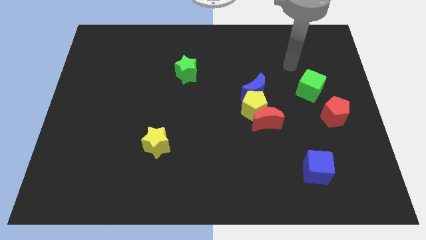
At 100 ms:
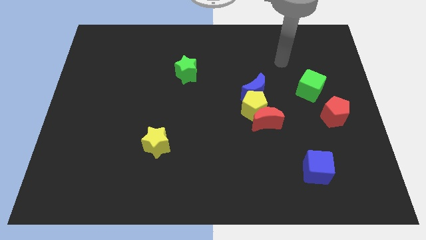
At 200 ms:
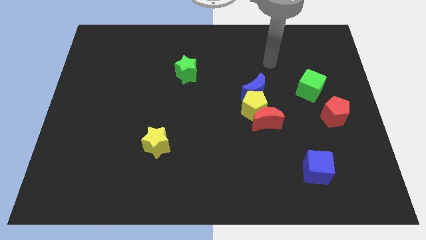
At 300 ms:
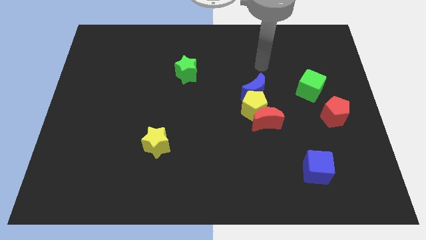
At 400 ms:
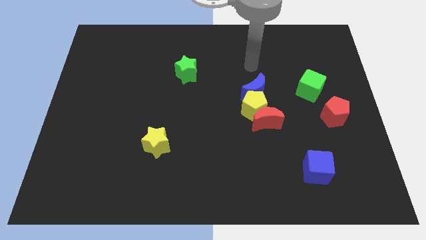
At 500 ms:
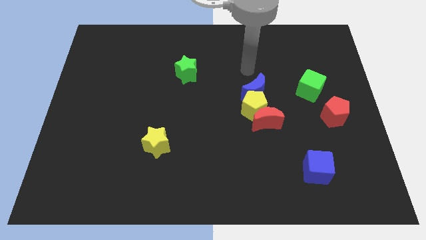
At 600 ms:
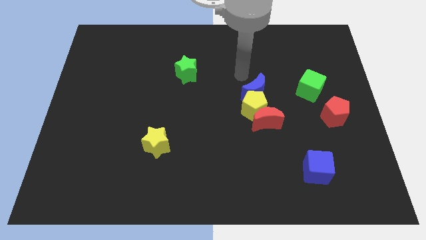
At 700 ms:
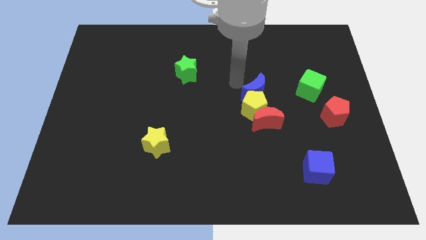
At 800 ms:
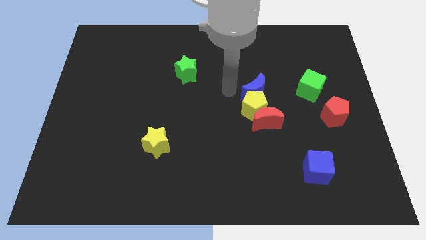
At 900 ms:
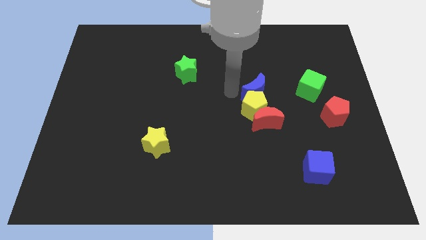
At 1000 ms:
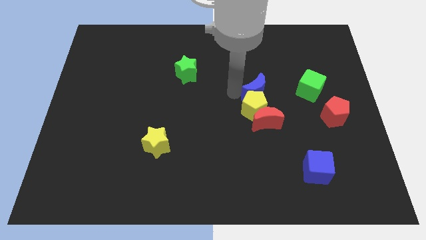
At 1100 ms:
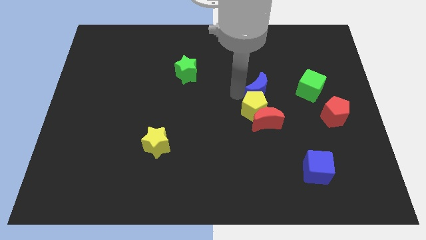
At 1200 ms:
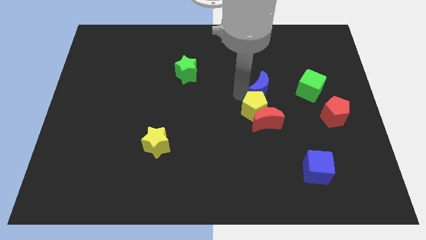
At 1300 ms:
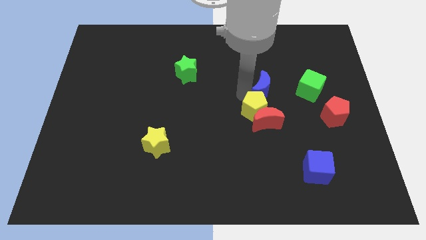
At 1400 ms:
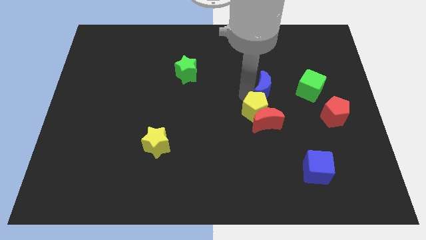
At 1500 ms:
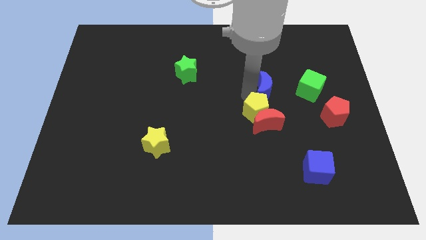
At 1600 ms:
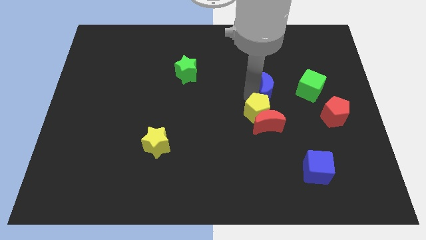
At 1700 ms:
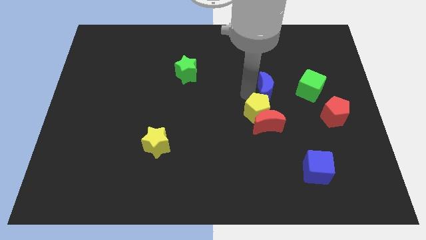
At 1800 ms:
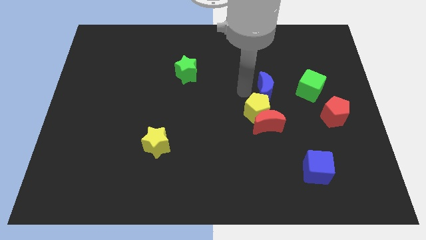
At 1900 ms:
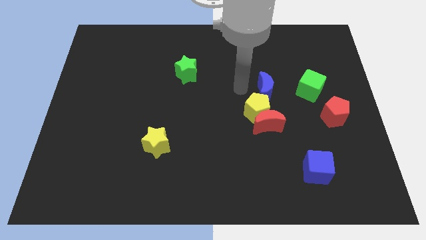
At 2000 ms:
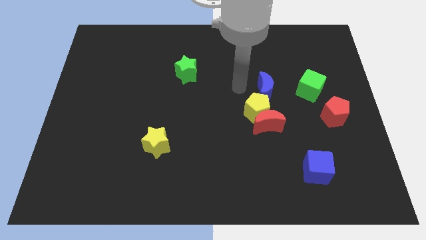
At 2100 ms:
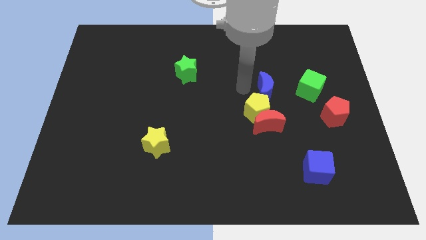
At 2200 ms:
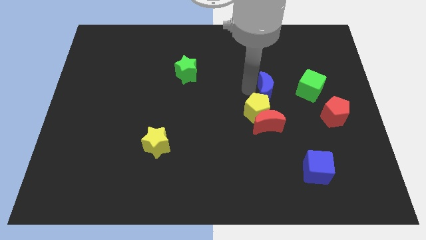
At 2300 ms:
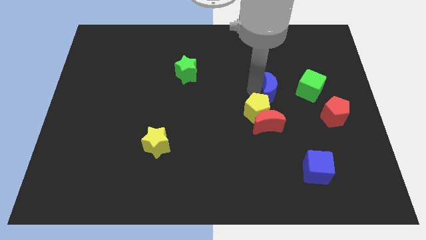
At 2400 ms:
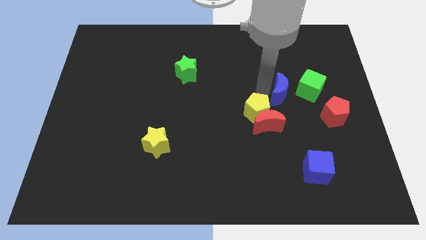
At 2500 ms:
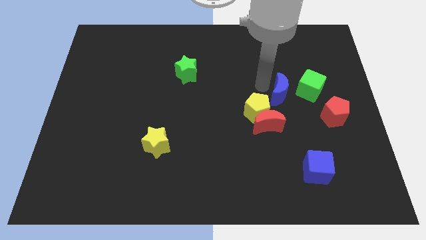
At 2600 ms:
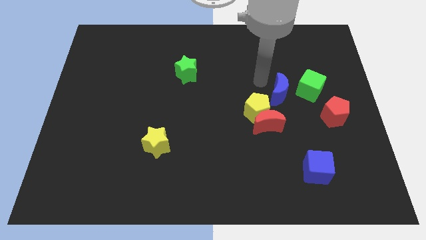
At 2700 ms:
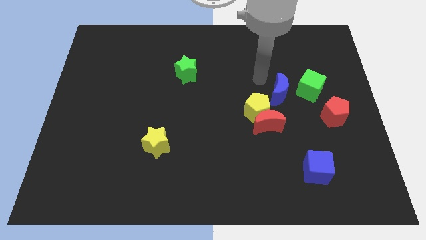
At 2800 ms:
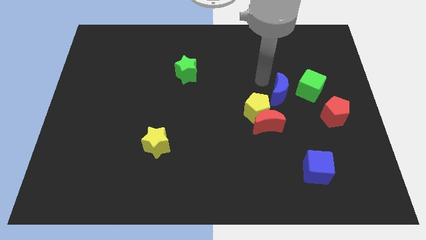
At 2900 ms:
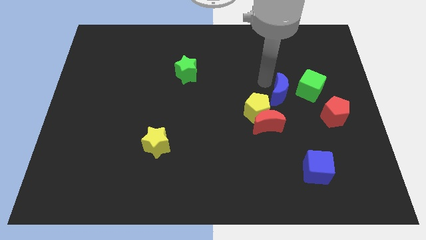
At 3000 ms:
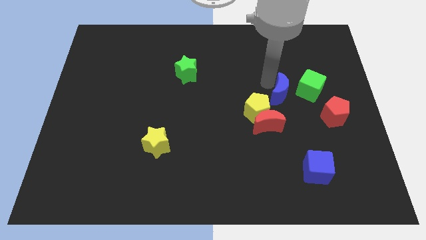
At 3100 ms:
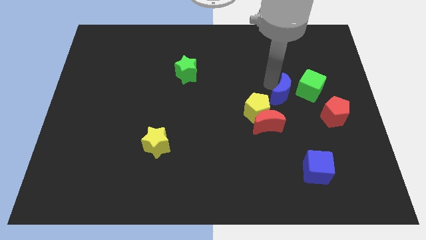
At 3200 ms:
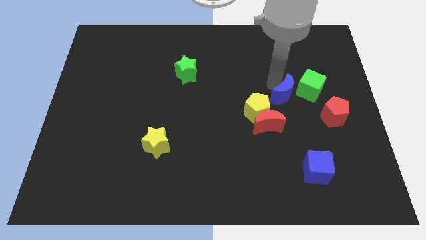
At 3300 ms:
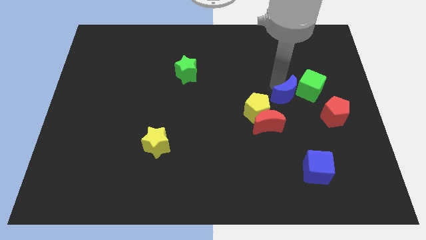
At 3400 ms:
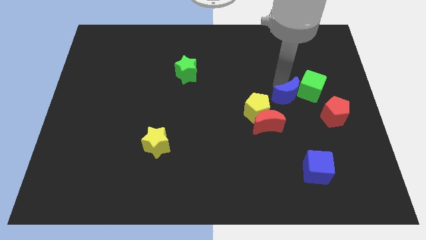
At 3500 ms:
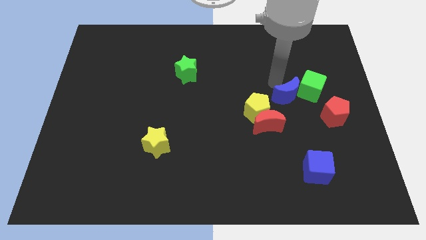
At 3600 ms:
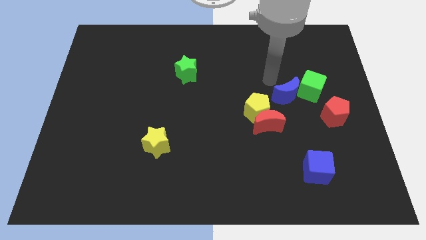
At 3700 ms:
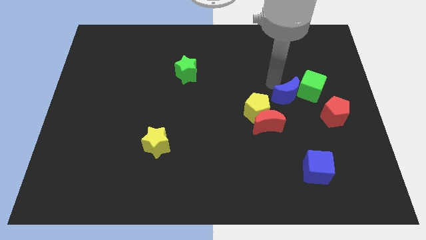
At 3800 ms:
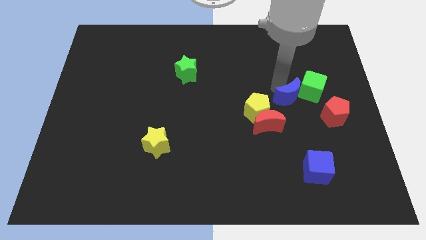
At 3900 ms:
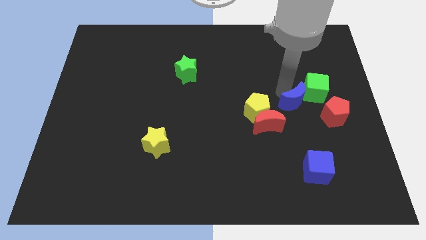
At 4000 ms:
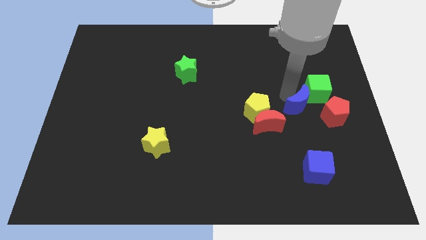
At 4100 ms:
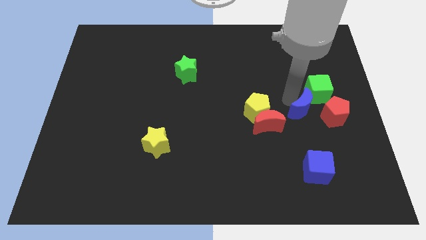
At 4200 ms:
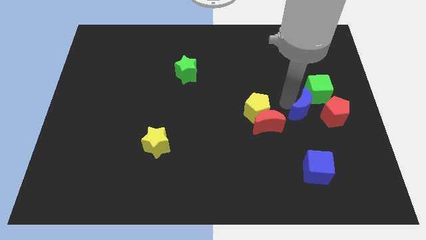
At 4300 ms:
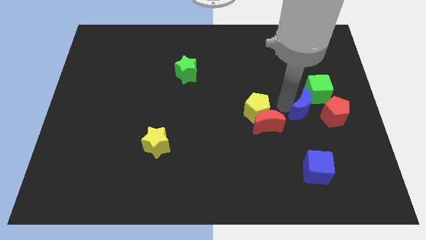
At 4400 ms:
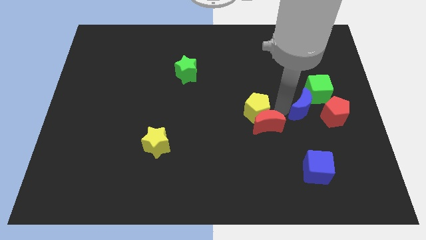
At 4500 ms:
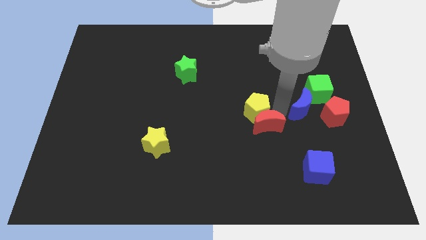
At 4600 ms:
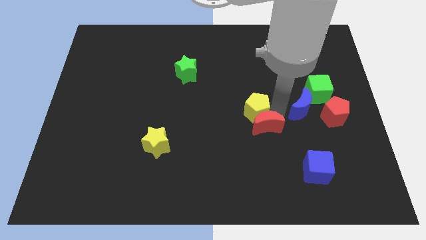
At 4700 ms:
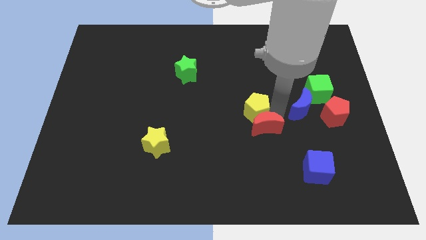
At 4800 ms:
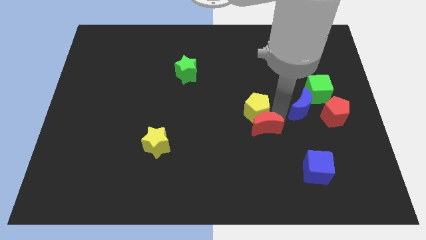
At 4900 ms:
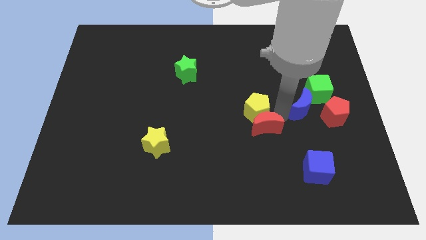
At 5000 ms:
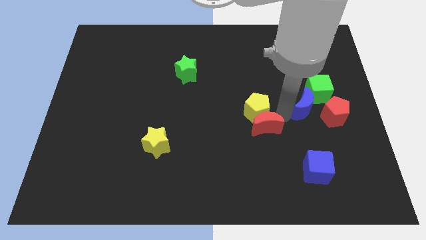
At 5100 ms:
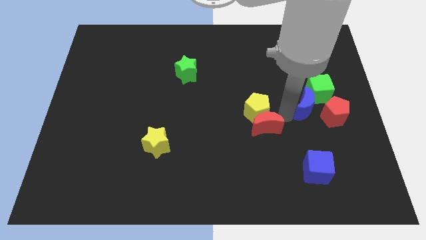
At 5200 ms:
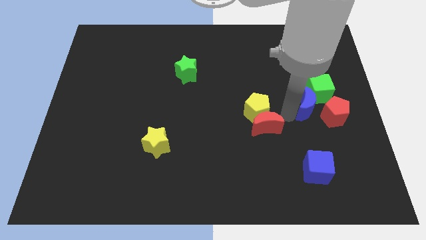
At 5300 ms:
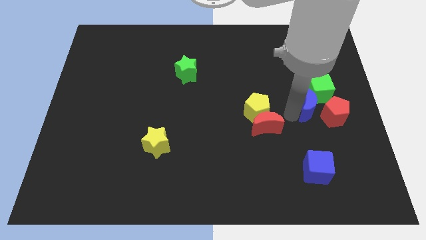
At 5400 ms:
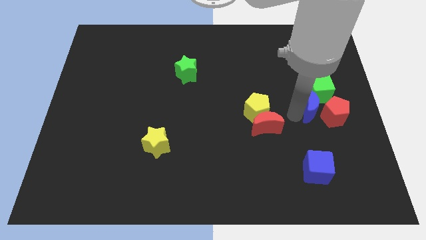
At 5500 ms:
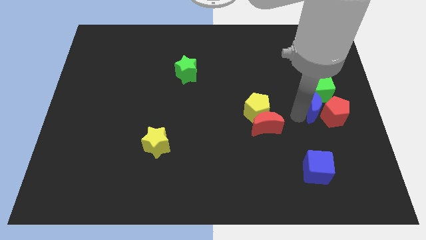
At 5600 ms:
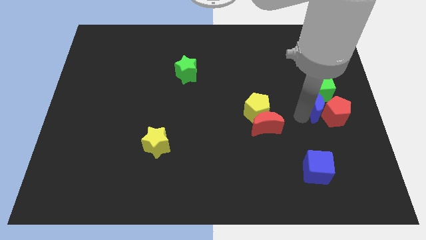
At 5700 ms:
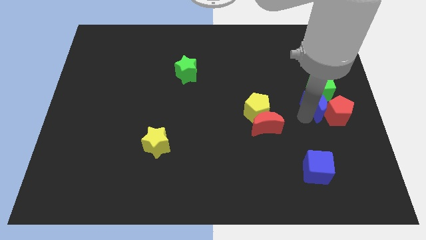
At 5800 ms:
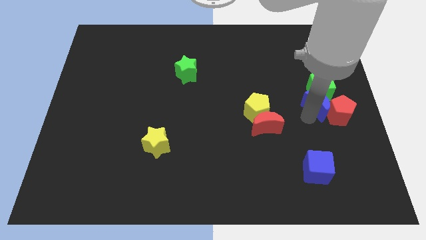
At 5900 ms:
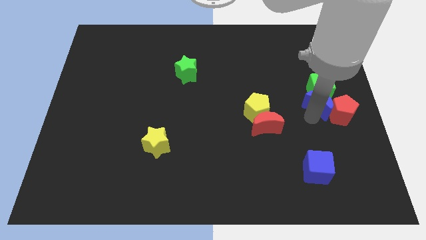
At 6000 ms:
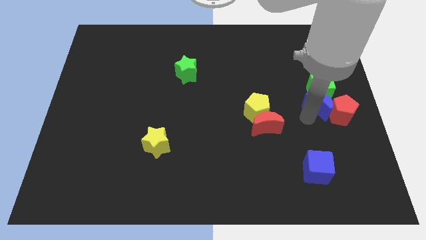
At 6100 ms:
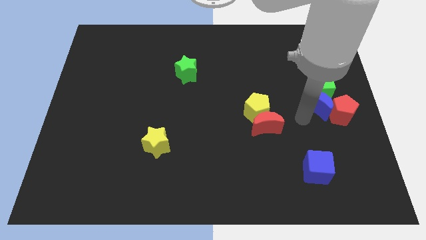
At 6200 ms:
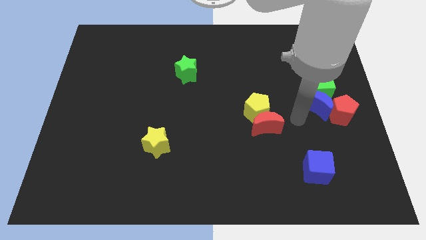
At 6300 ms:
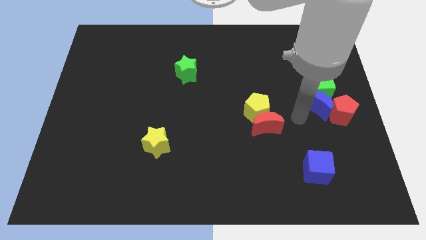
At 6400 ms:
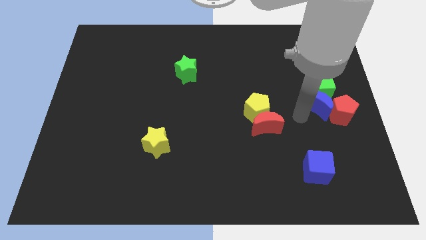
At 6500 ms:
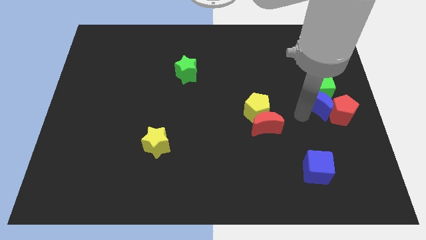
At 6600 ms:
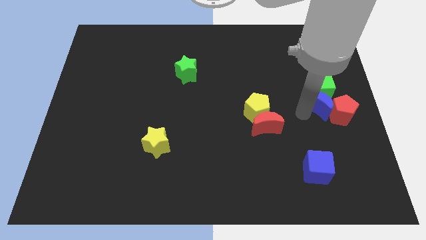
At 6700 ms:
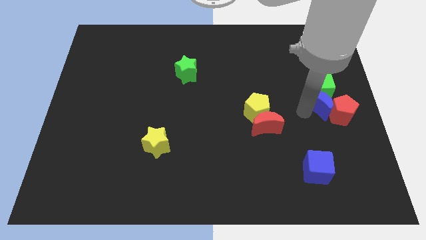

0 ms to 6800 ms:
put the blue moon to the right side of the board
